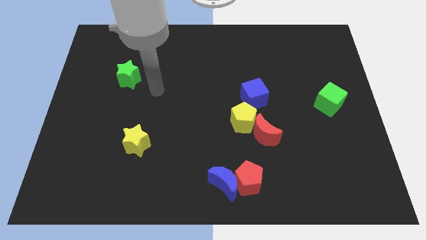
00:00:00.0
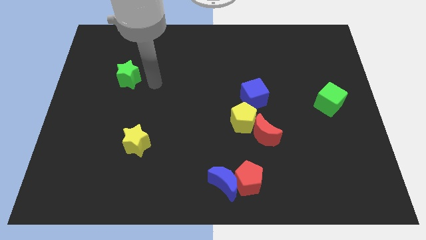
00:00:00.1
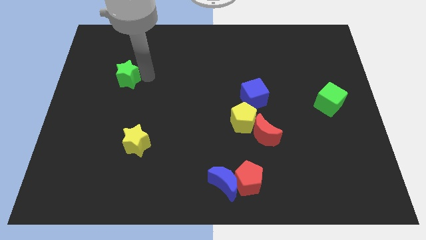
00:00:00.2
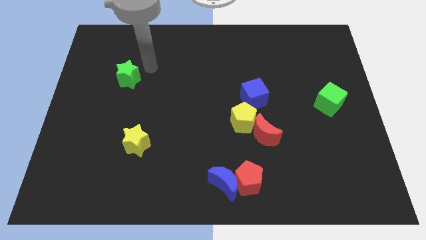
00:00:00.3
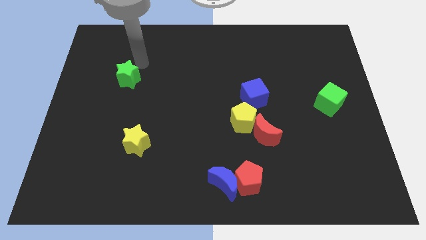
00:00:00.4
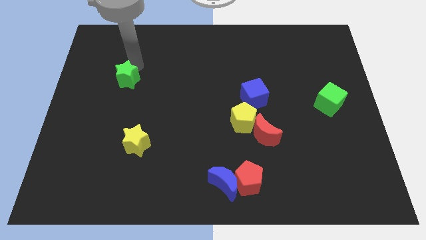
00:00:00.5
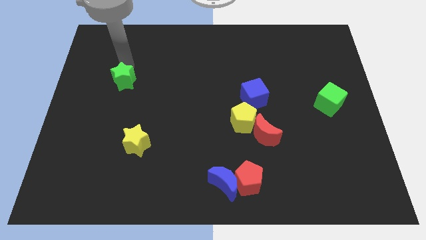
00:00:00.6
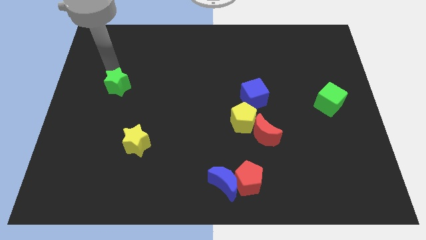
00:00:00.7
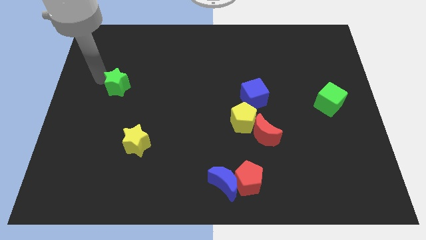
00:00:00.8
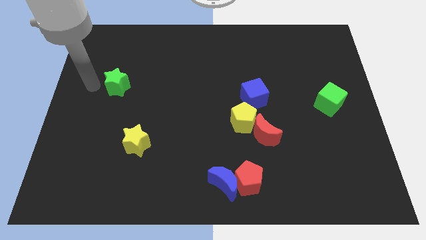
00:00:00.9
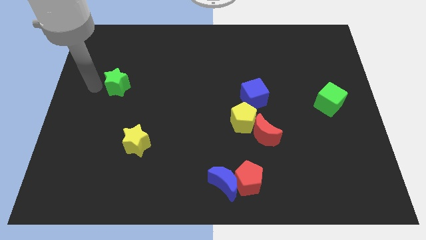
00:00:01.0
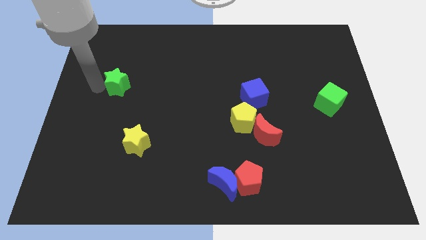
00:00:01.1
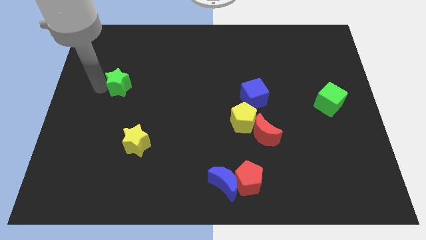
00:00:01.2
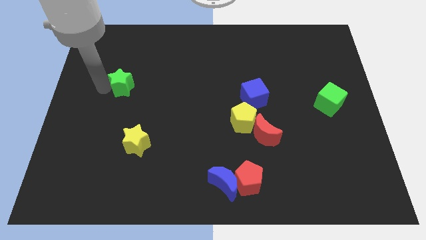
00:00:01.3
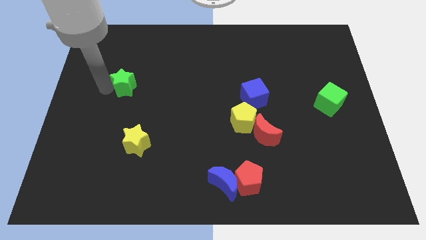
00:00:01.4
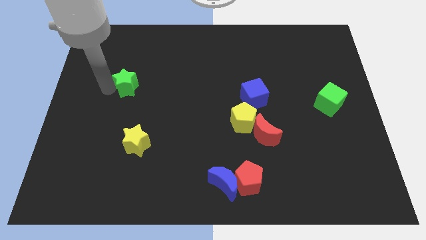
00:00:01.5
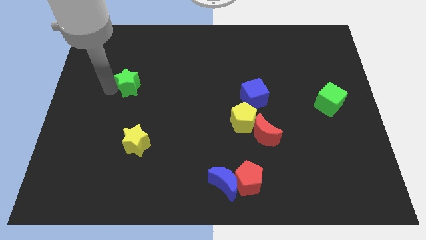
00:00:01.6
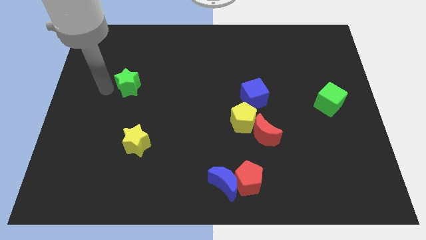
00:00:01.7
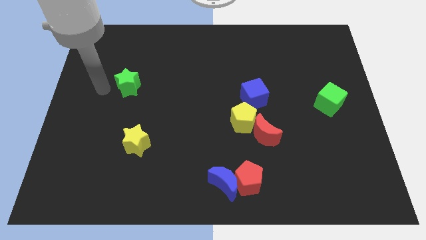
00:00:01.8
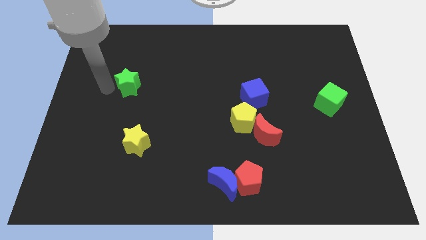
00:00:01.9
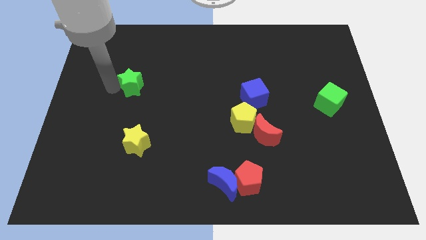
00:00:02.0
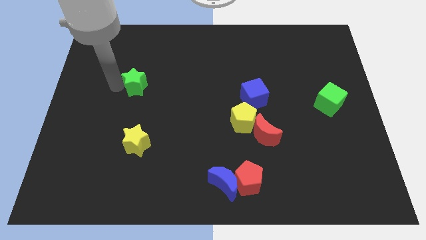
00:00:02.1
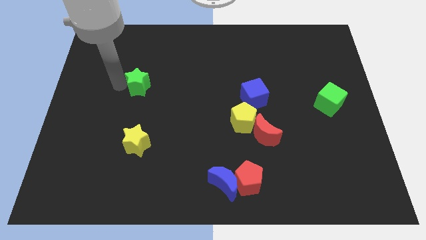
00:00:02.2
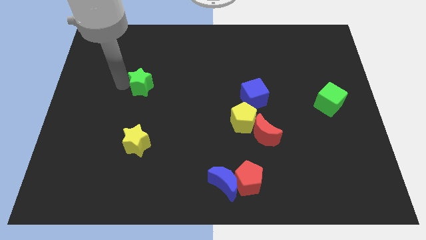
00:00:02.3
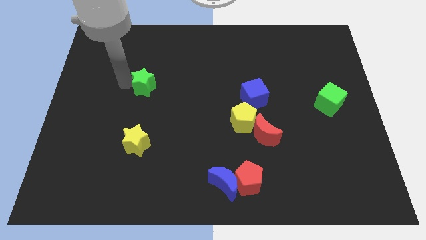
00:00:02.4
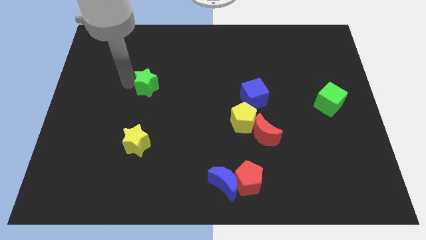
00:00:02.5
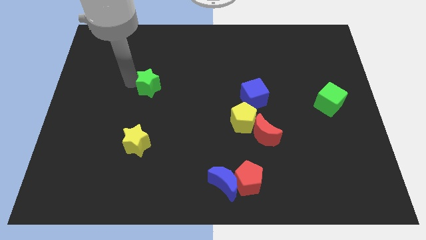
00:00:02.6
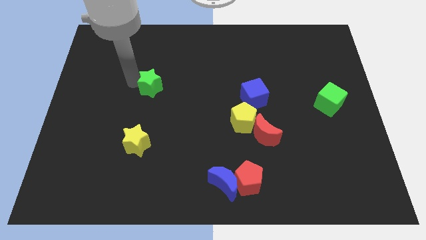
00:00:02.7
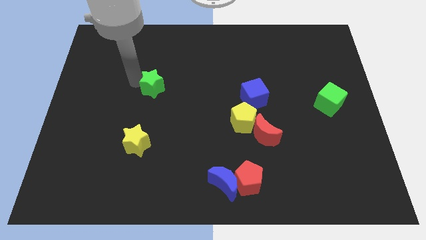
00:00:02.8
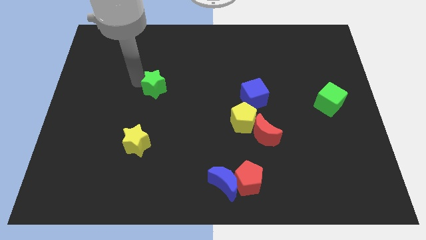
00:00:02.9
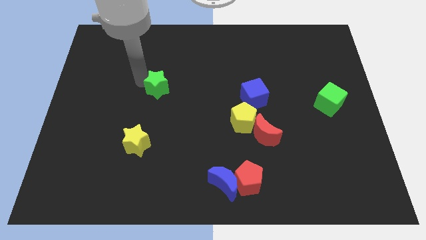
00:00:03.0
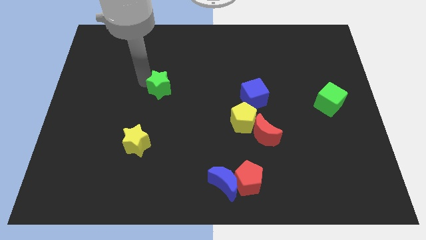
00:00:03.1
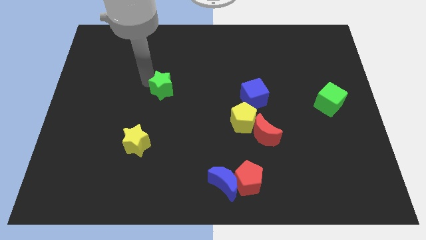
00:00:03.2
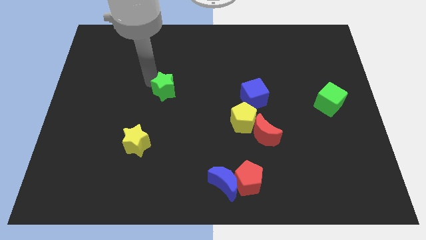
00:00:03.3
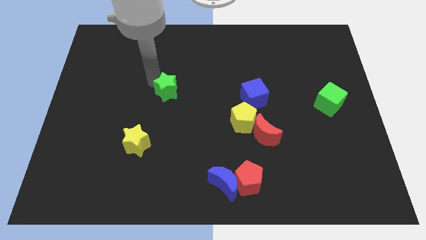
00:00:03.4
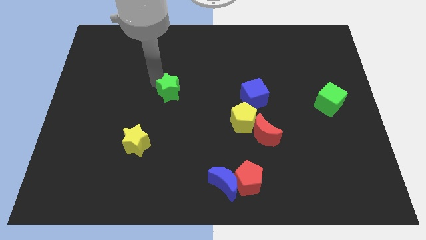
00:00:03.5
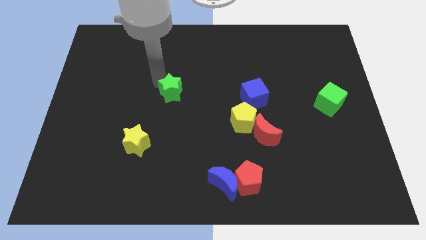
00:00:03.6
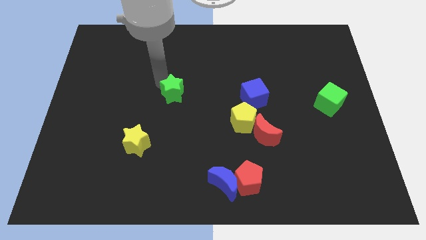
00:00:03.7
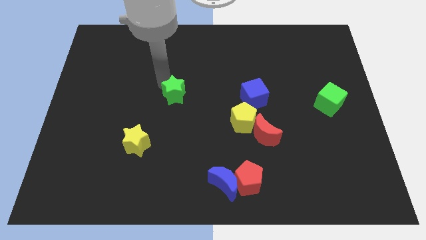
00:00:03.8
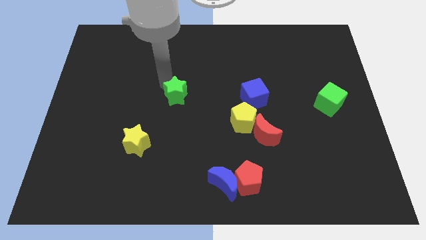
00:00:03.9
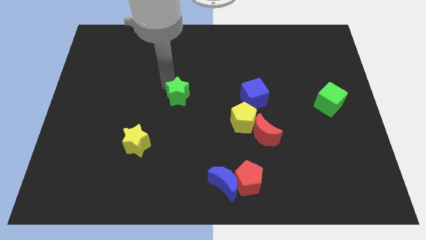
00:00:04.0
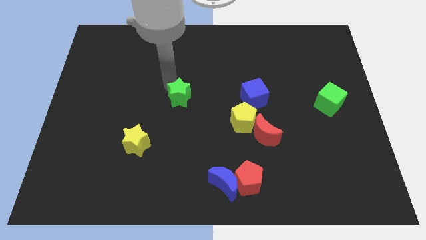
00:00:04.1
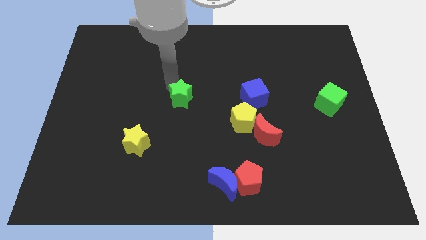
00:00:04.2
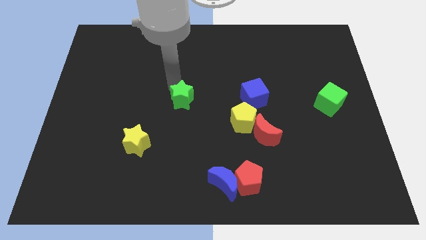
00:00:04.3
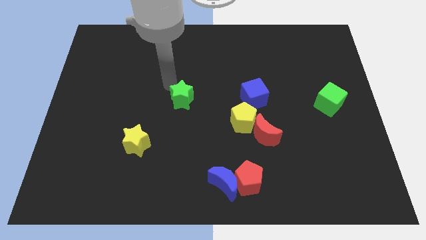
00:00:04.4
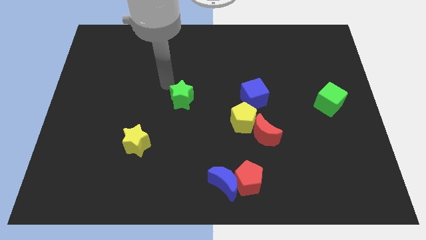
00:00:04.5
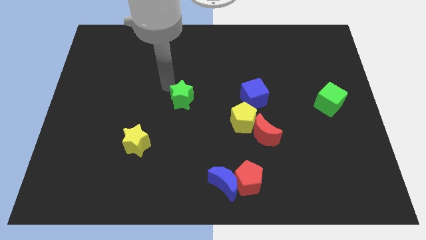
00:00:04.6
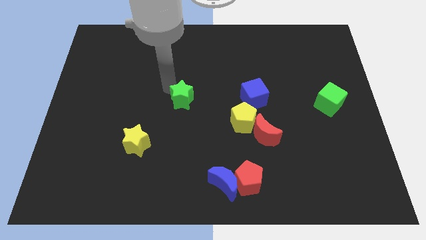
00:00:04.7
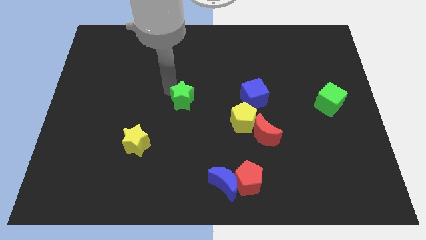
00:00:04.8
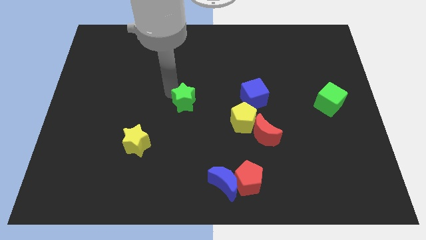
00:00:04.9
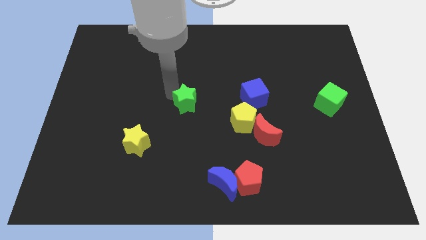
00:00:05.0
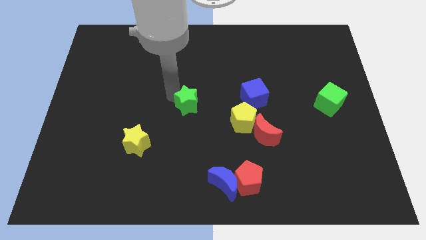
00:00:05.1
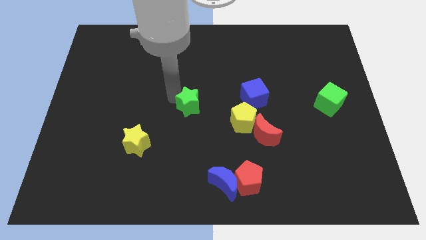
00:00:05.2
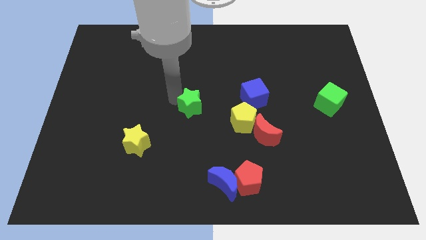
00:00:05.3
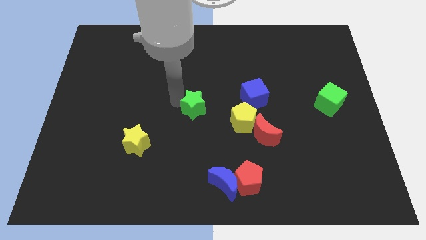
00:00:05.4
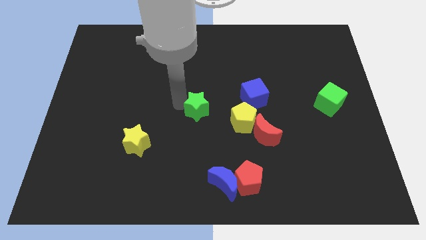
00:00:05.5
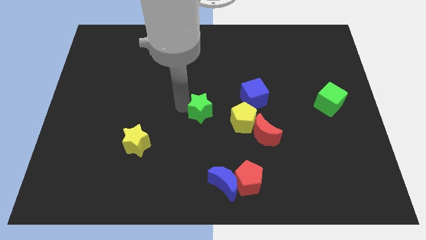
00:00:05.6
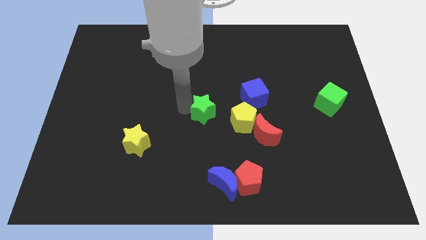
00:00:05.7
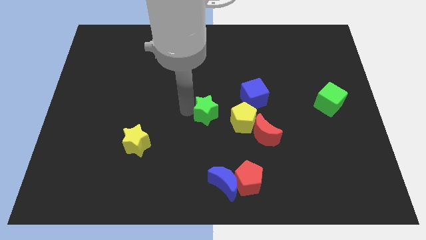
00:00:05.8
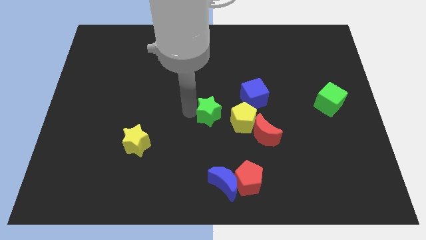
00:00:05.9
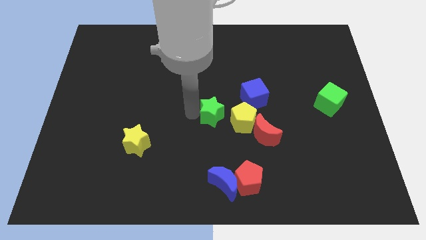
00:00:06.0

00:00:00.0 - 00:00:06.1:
put the green star diagonally down and to the left of the blue cube

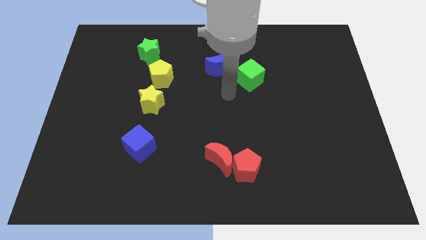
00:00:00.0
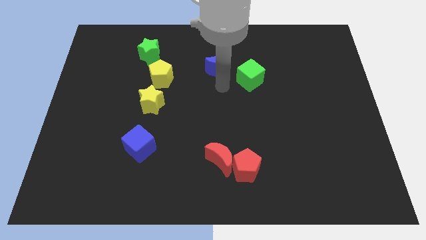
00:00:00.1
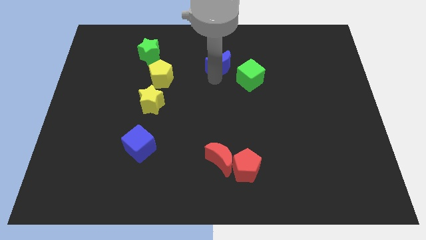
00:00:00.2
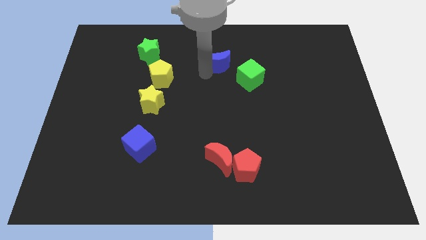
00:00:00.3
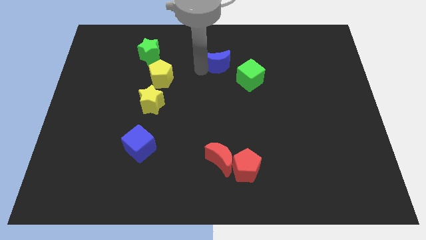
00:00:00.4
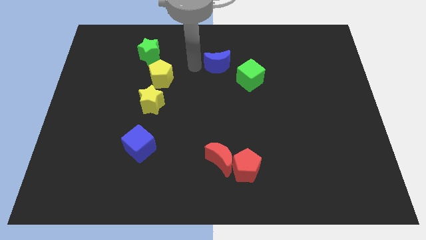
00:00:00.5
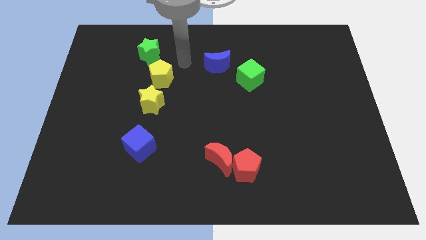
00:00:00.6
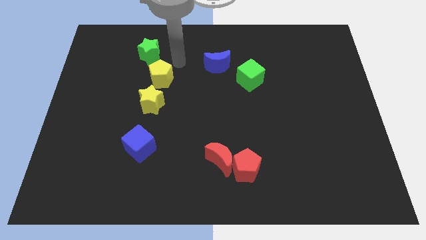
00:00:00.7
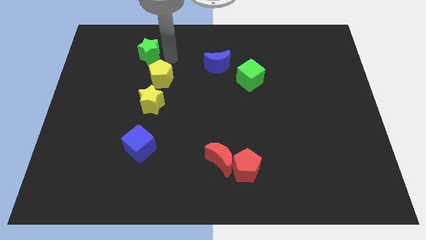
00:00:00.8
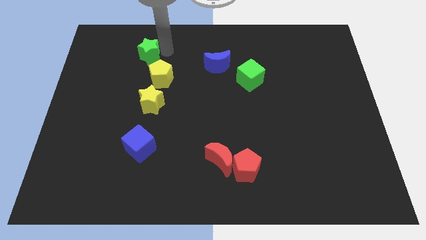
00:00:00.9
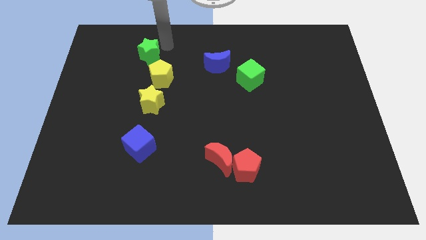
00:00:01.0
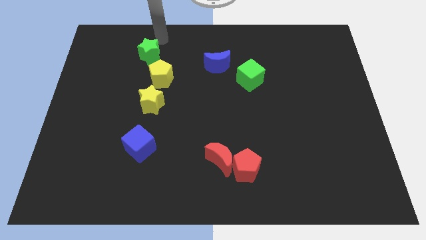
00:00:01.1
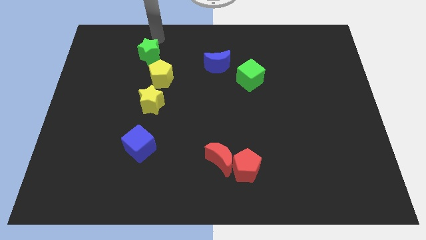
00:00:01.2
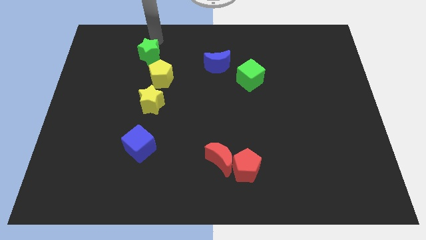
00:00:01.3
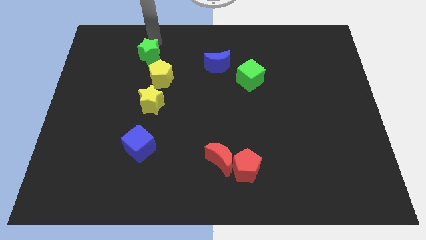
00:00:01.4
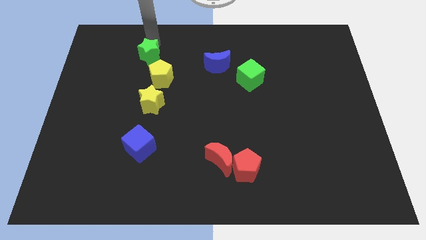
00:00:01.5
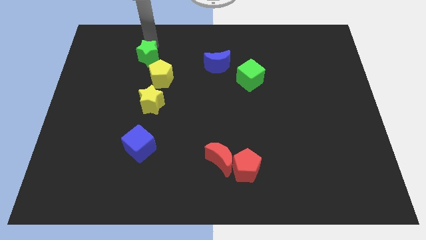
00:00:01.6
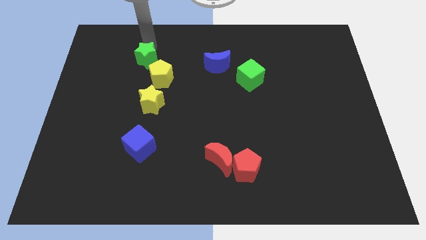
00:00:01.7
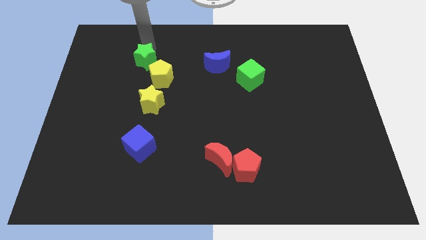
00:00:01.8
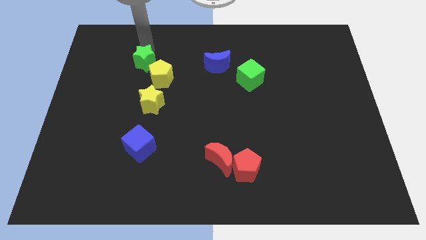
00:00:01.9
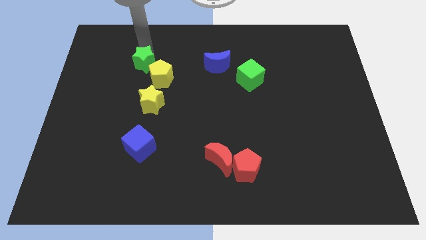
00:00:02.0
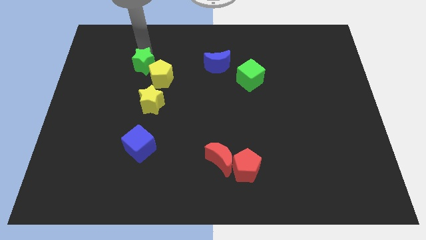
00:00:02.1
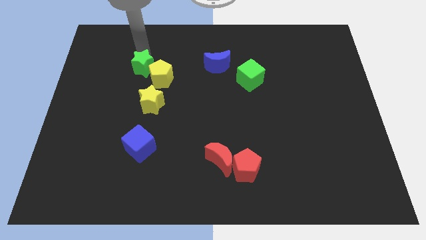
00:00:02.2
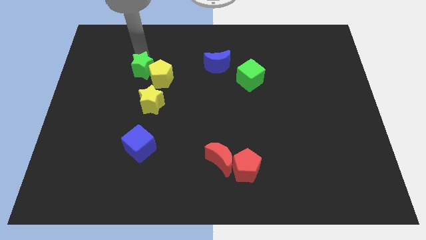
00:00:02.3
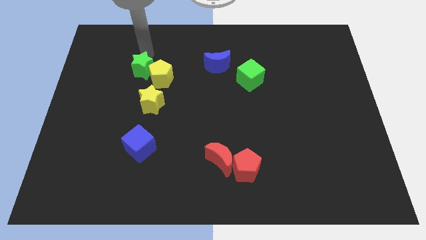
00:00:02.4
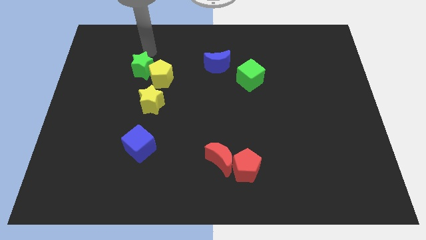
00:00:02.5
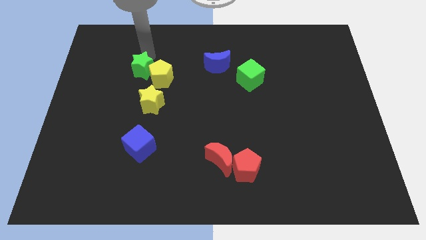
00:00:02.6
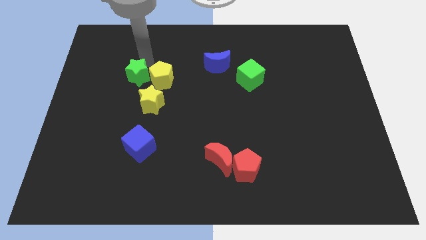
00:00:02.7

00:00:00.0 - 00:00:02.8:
push the green star to the bottom left of the yellow pentagon
